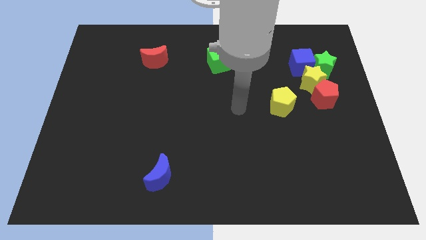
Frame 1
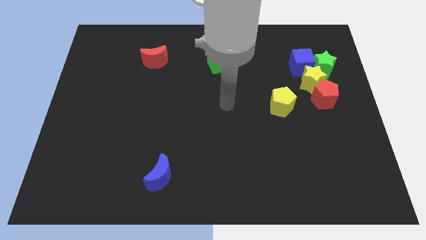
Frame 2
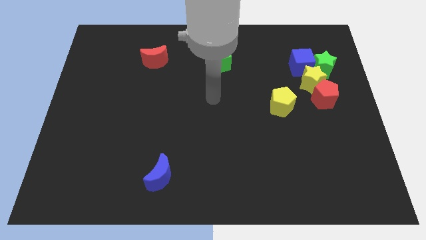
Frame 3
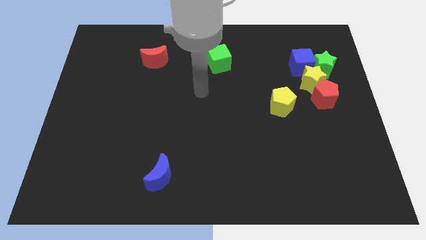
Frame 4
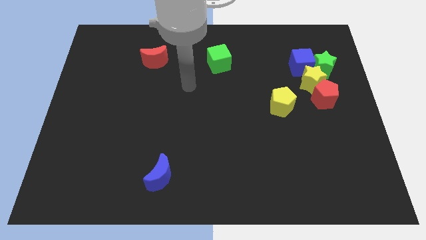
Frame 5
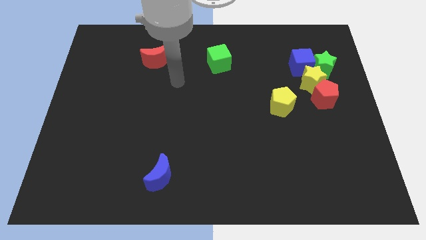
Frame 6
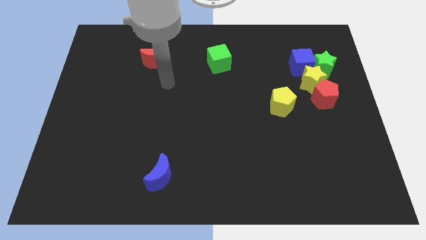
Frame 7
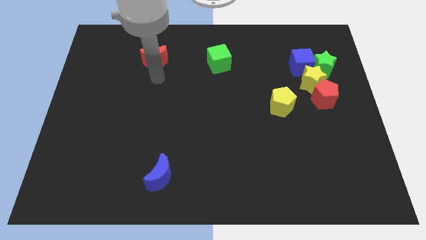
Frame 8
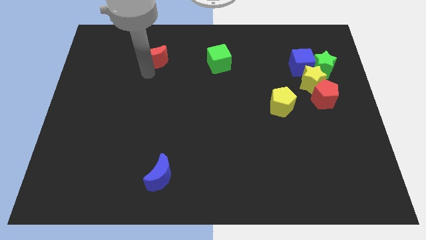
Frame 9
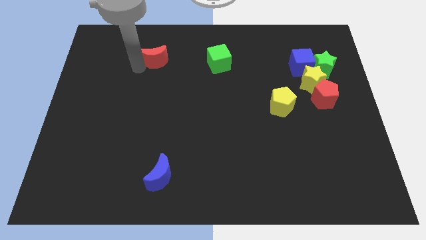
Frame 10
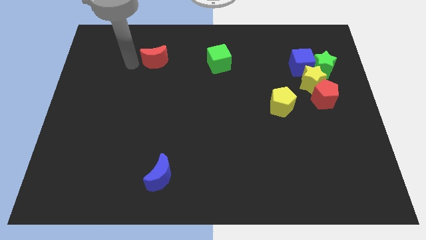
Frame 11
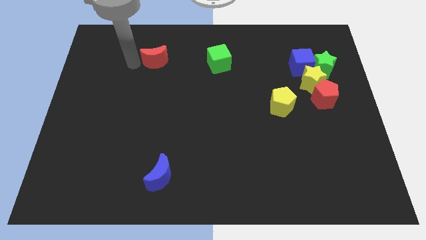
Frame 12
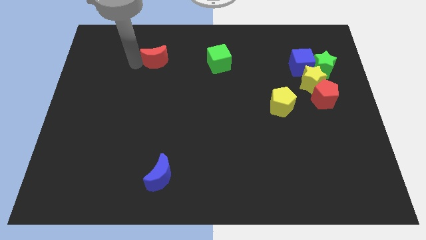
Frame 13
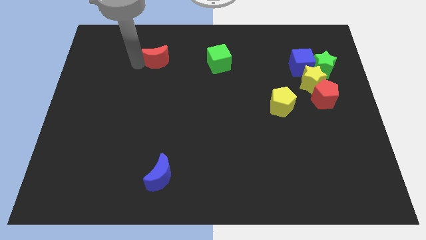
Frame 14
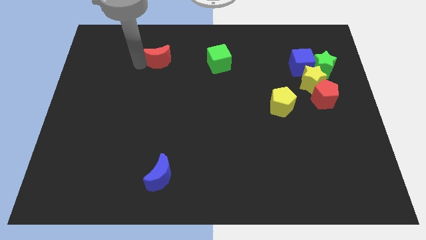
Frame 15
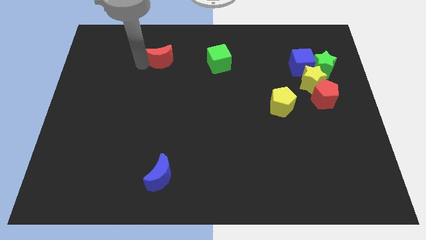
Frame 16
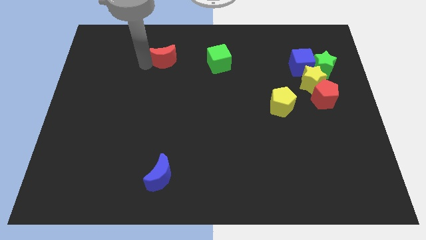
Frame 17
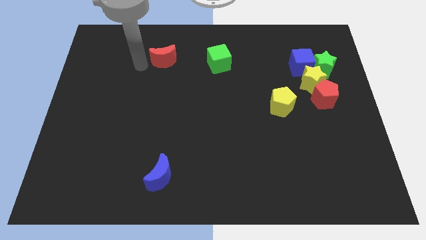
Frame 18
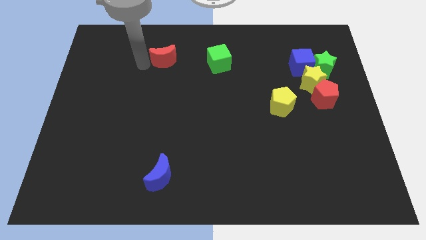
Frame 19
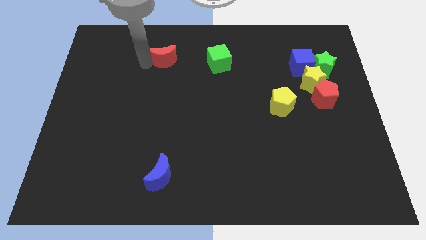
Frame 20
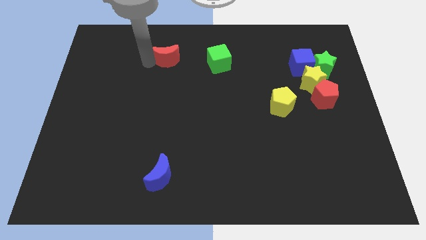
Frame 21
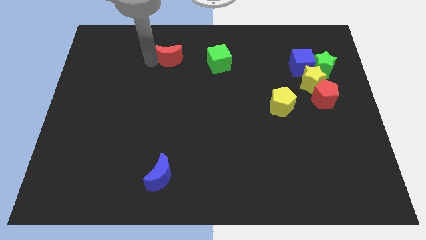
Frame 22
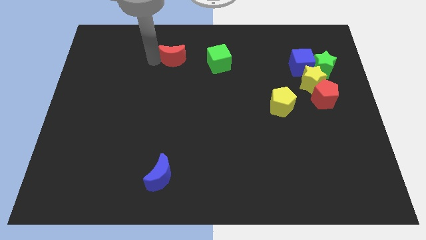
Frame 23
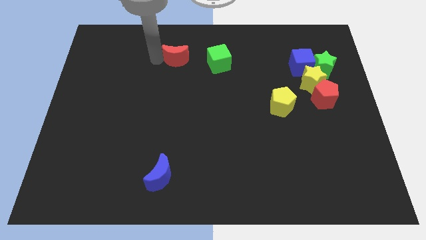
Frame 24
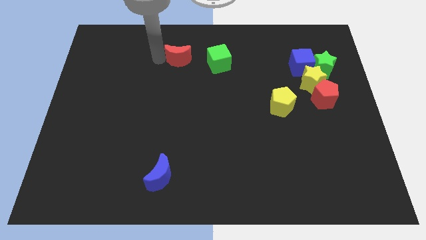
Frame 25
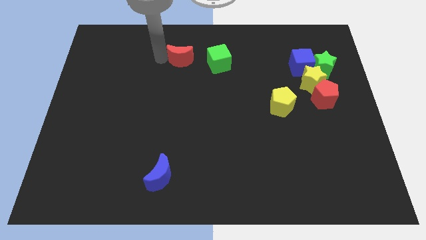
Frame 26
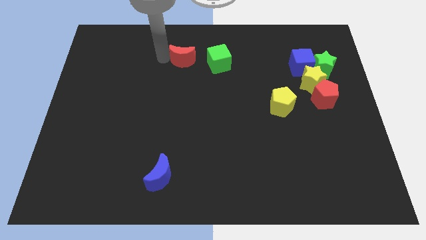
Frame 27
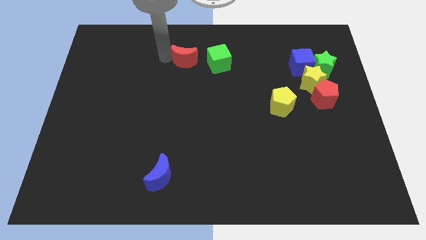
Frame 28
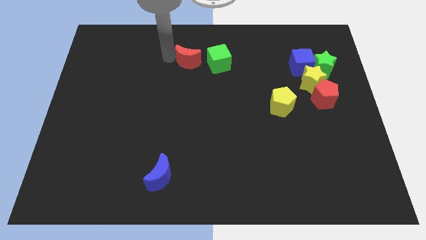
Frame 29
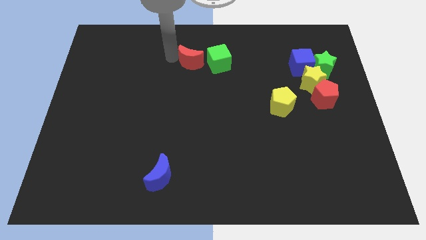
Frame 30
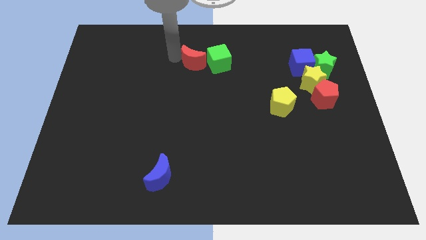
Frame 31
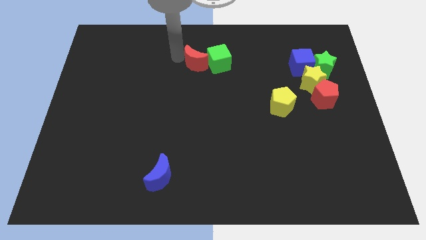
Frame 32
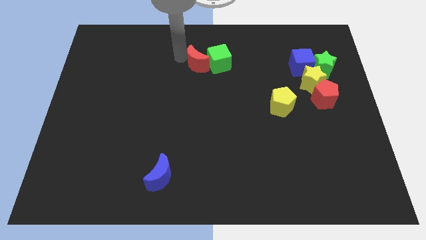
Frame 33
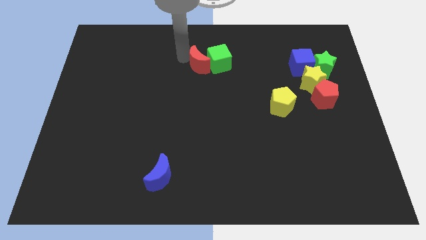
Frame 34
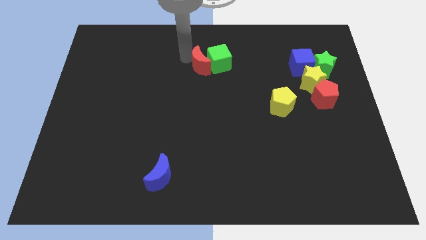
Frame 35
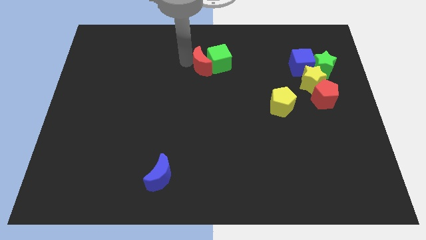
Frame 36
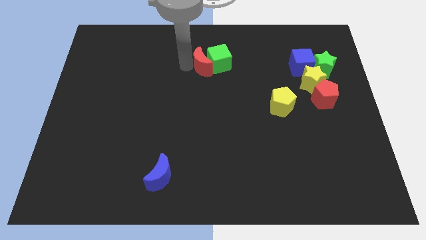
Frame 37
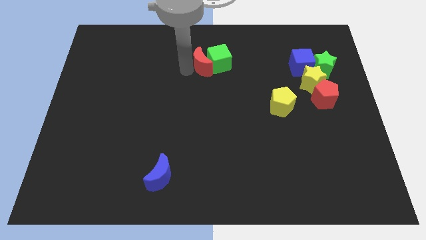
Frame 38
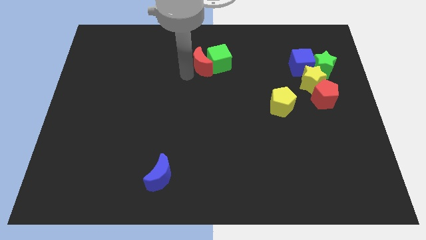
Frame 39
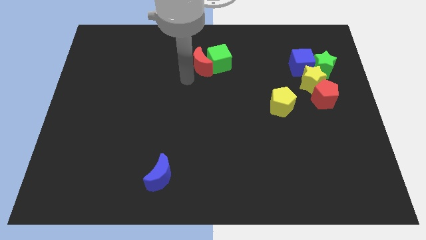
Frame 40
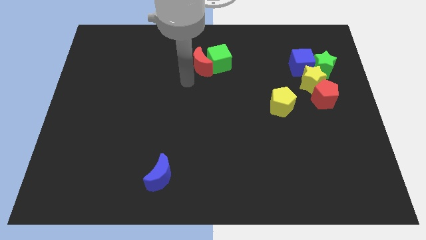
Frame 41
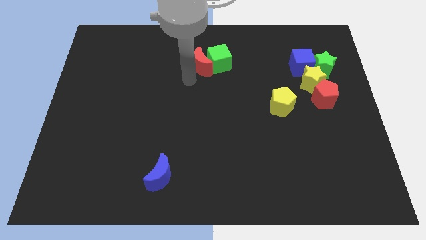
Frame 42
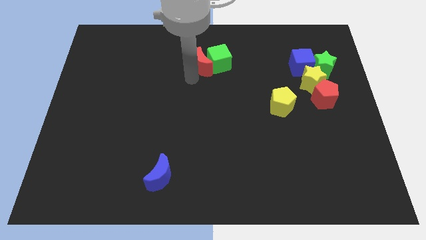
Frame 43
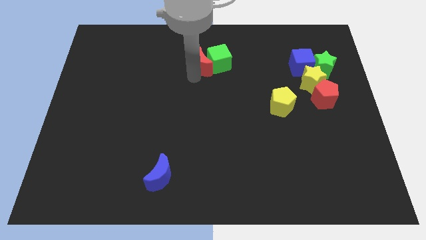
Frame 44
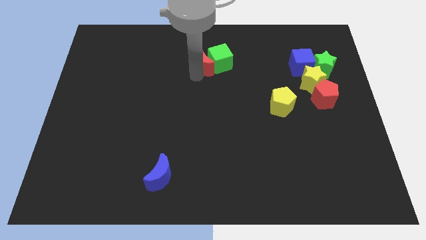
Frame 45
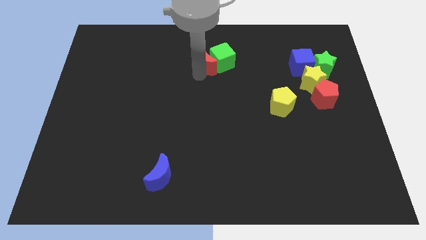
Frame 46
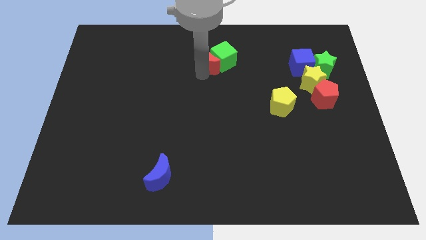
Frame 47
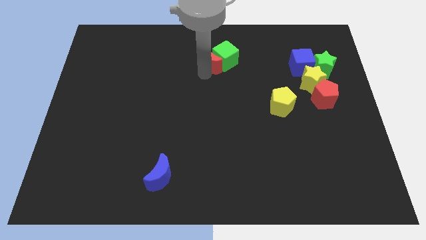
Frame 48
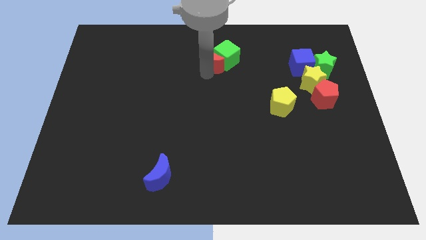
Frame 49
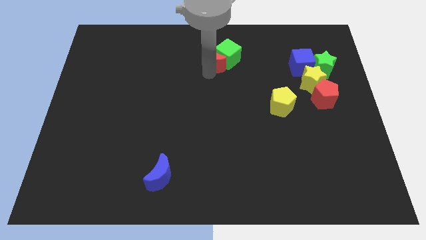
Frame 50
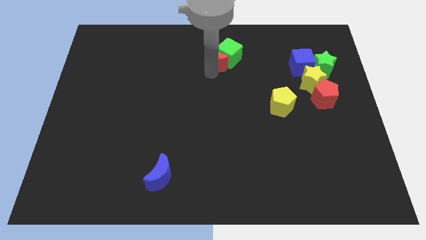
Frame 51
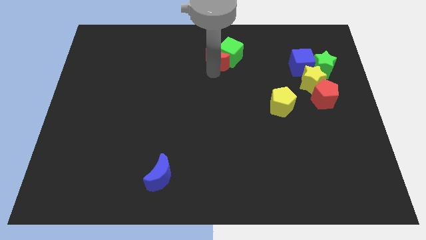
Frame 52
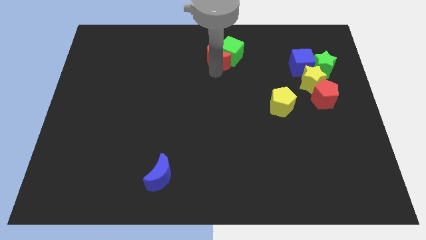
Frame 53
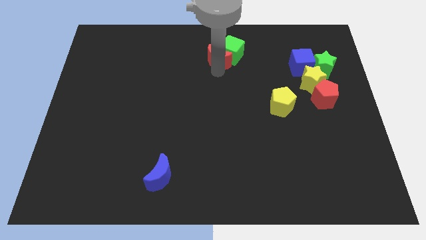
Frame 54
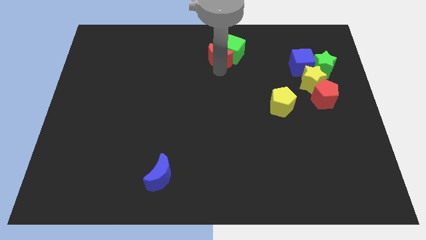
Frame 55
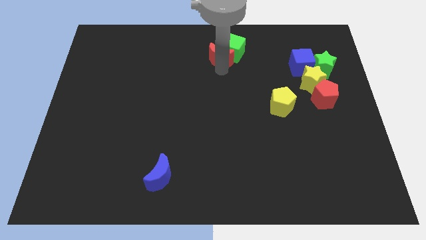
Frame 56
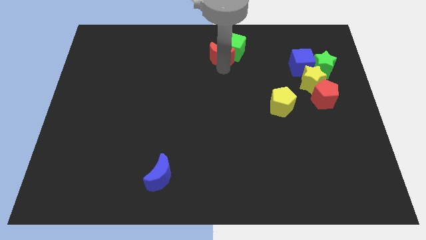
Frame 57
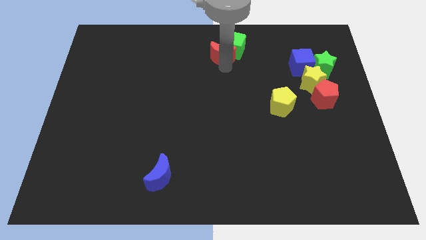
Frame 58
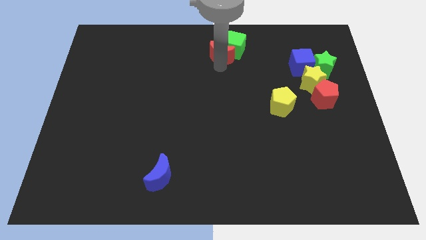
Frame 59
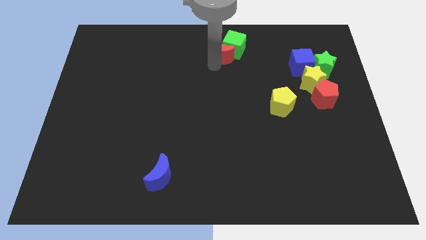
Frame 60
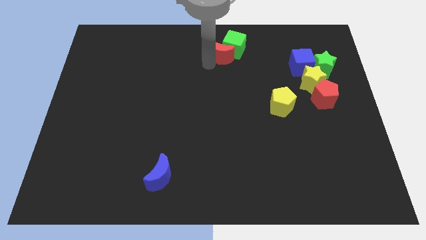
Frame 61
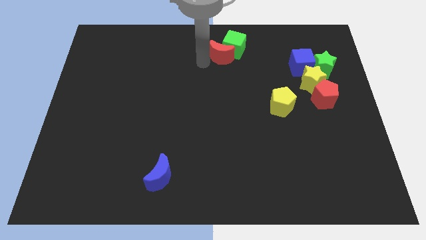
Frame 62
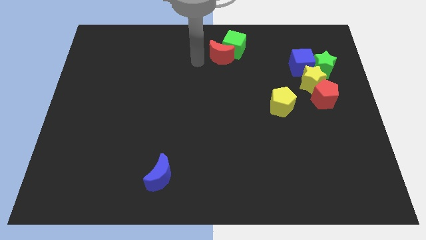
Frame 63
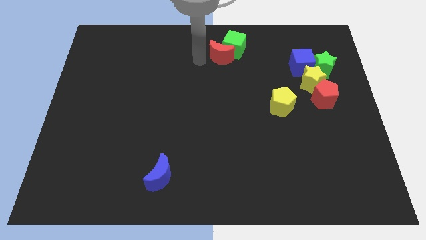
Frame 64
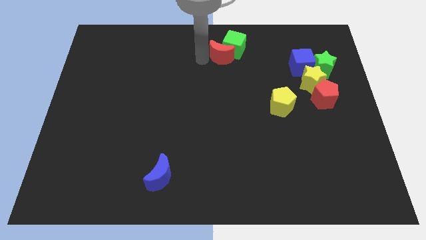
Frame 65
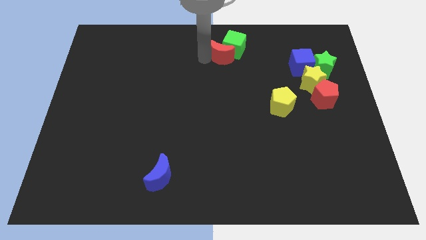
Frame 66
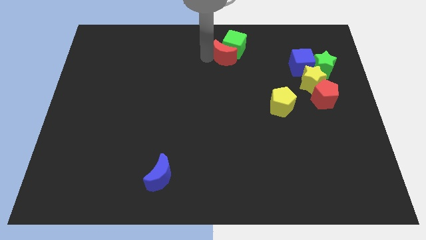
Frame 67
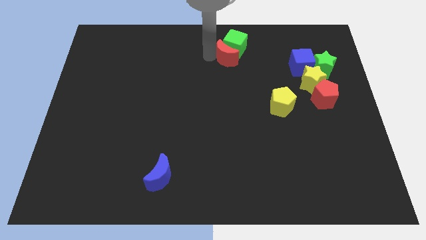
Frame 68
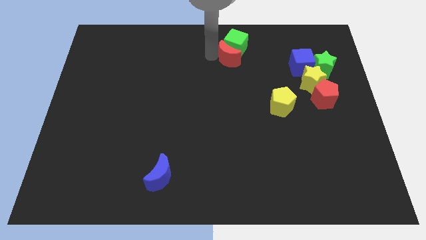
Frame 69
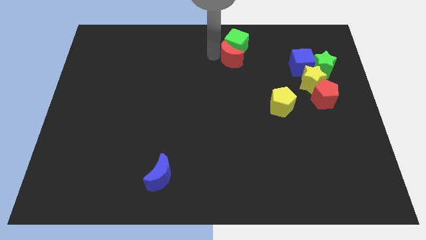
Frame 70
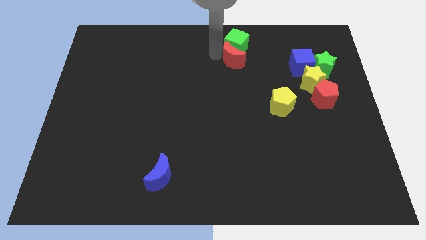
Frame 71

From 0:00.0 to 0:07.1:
push the red moon to the right

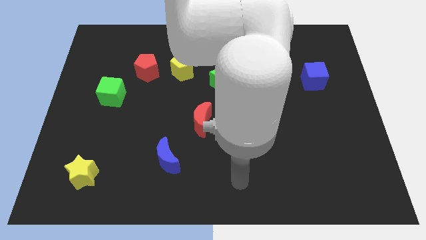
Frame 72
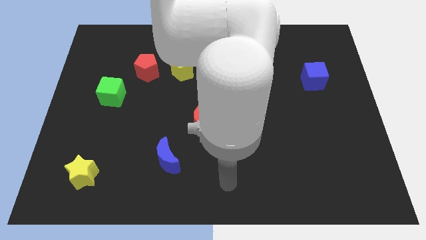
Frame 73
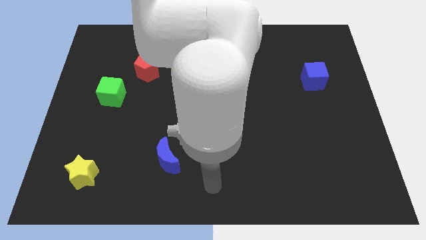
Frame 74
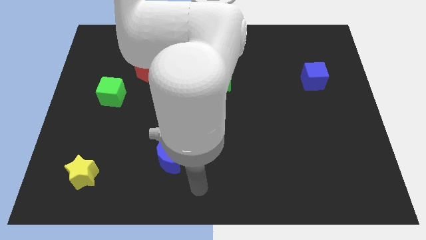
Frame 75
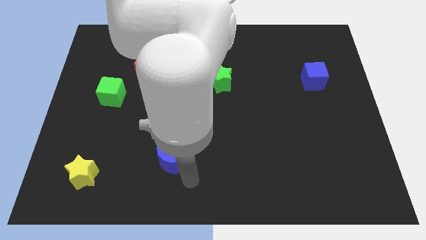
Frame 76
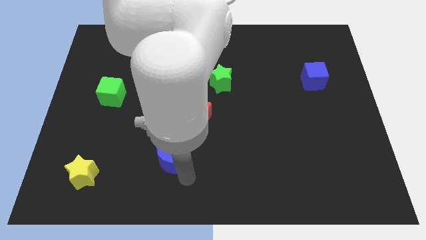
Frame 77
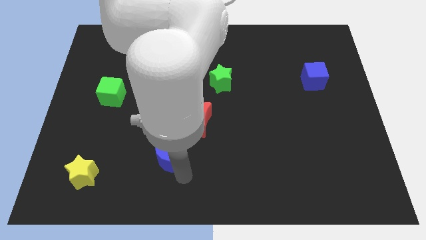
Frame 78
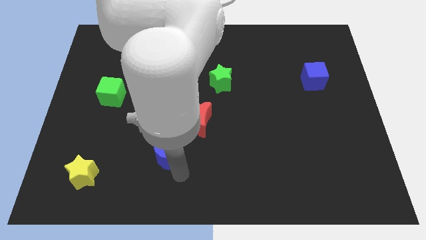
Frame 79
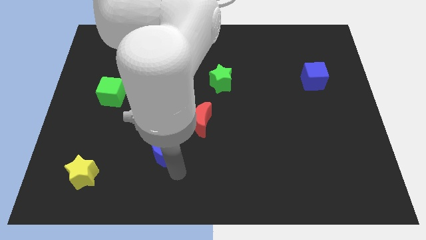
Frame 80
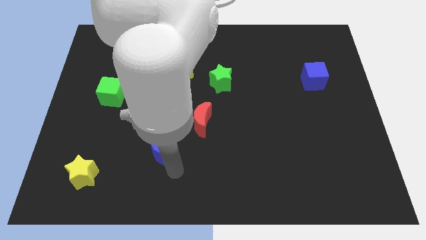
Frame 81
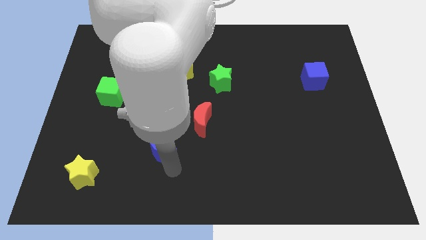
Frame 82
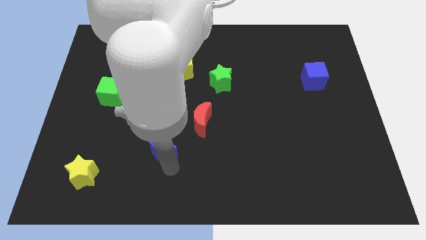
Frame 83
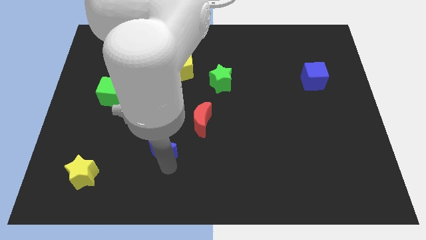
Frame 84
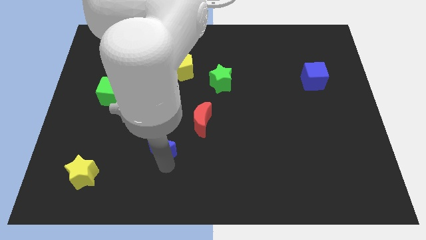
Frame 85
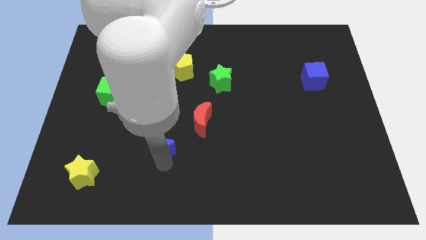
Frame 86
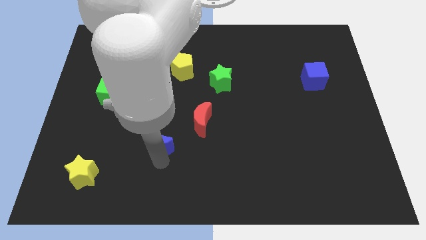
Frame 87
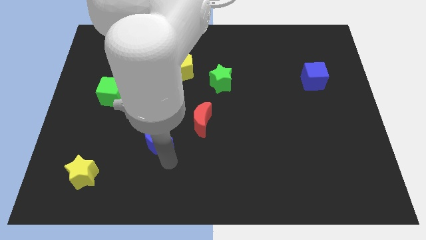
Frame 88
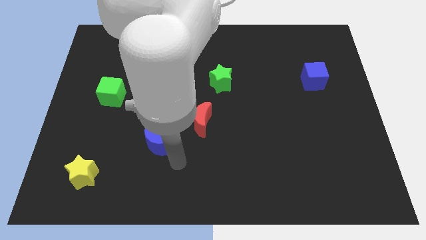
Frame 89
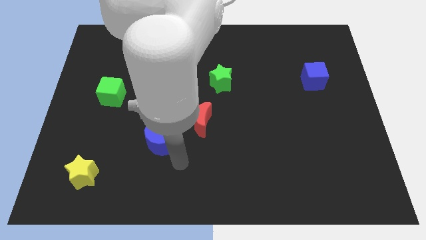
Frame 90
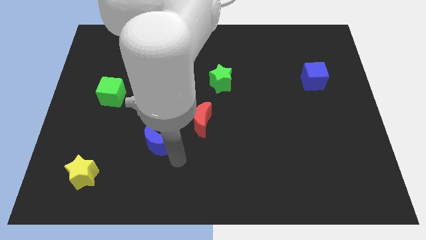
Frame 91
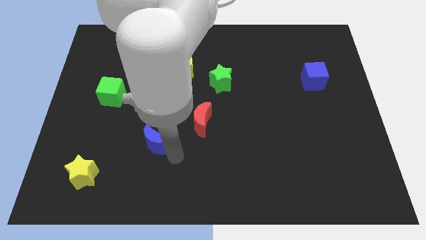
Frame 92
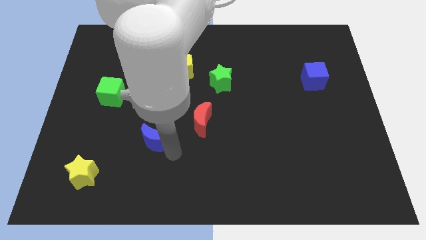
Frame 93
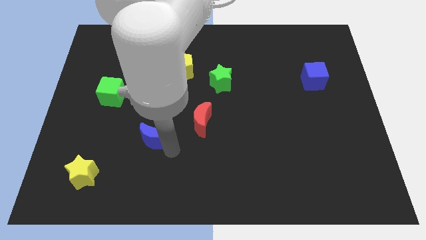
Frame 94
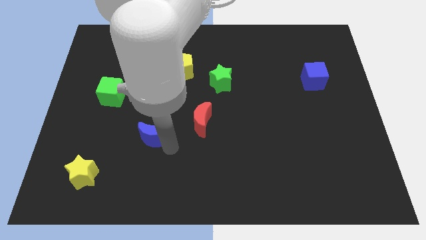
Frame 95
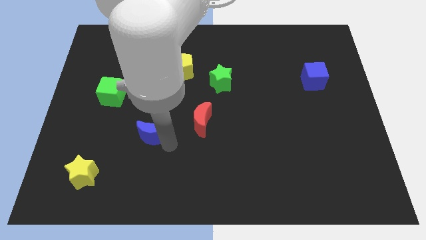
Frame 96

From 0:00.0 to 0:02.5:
slightly push the blue moon upwards and left diagonally
